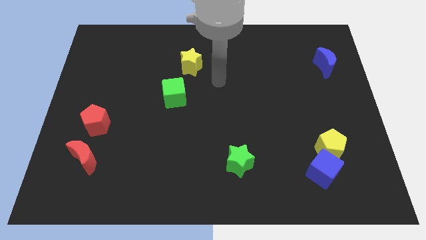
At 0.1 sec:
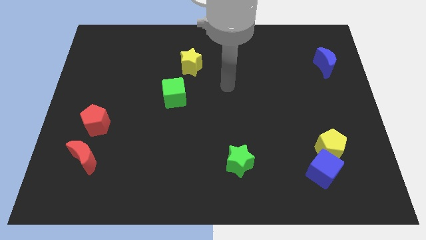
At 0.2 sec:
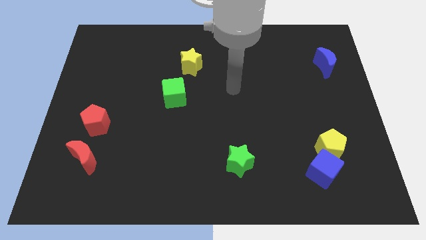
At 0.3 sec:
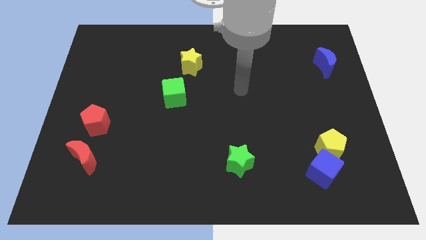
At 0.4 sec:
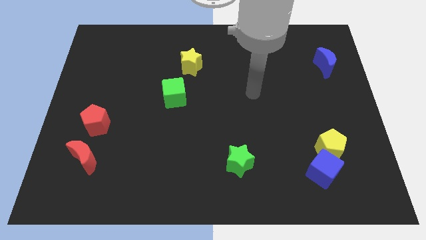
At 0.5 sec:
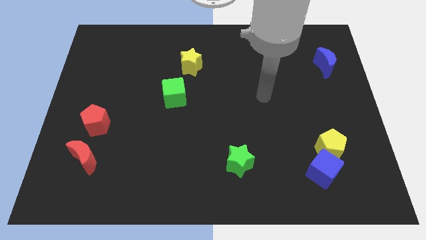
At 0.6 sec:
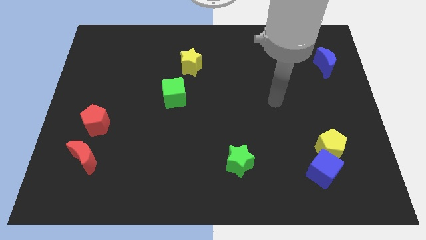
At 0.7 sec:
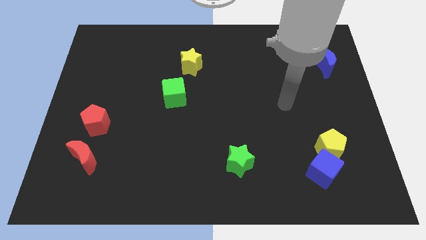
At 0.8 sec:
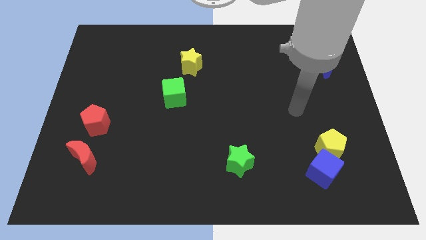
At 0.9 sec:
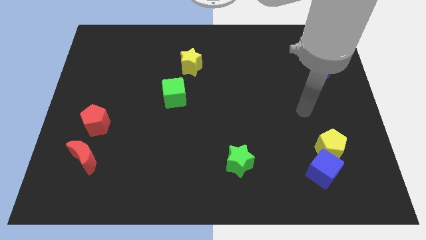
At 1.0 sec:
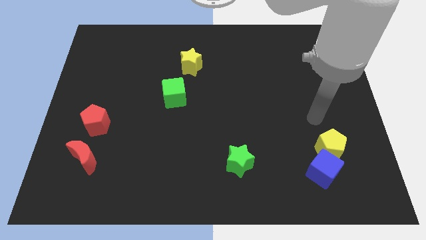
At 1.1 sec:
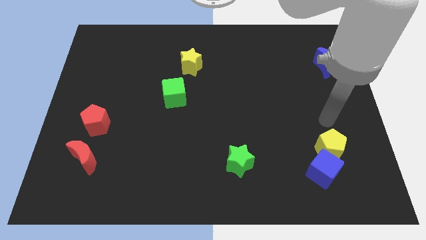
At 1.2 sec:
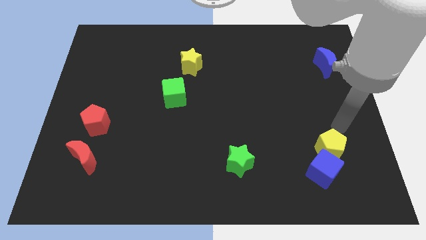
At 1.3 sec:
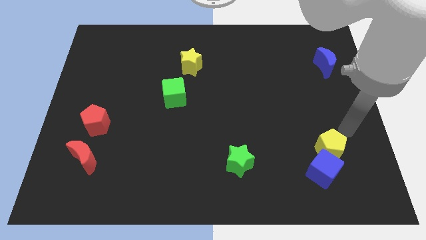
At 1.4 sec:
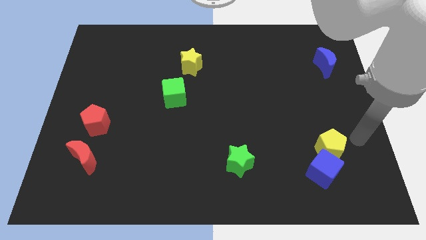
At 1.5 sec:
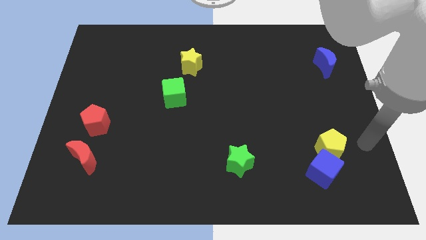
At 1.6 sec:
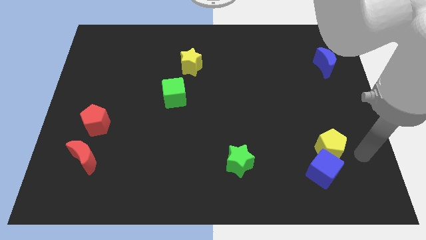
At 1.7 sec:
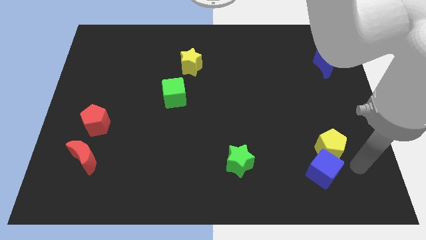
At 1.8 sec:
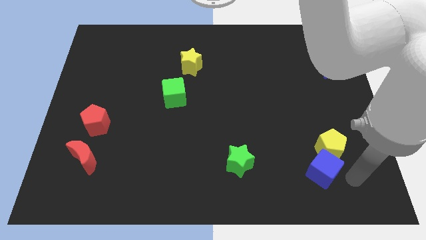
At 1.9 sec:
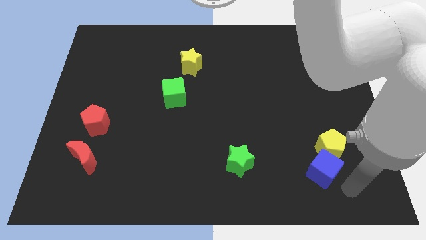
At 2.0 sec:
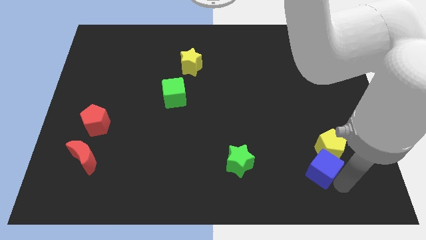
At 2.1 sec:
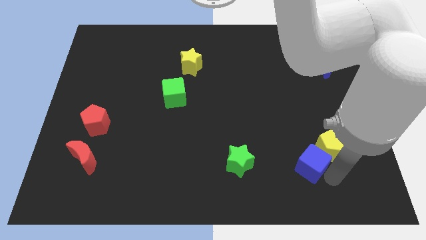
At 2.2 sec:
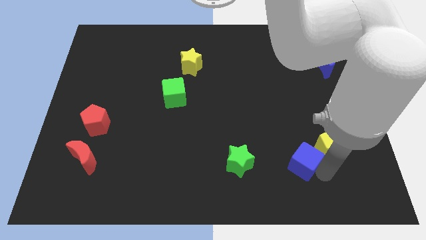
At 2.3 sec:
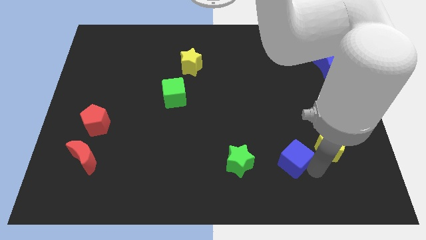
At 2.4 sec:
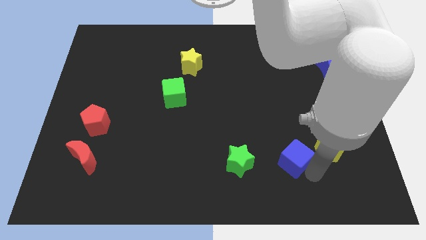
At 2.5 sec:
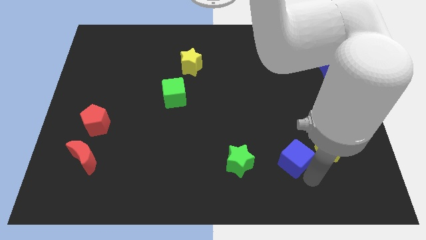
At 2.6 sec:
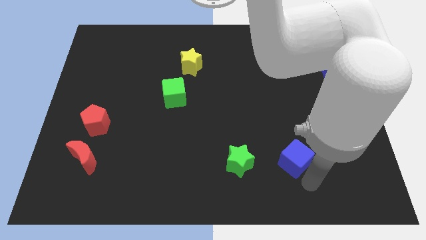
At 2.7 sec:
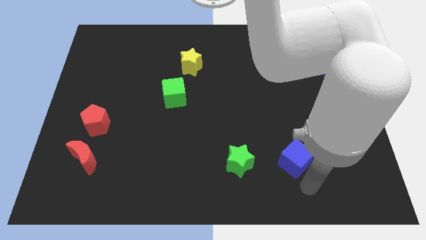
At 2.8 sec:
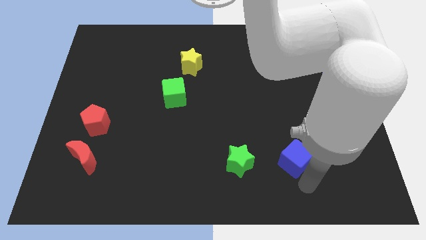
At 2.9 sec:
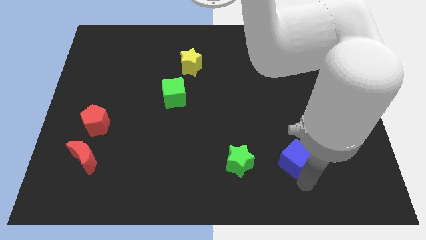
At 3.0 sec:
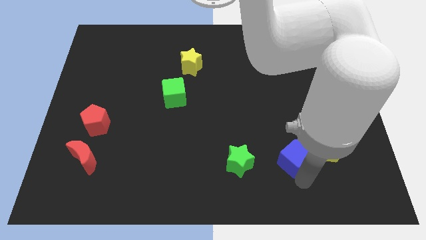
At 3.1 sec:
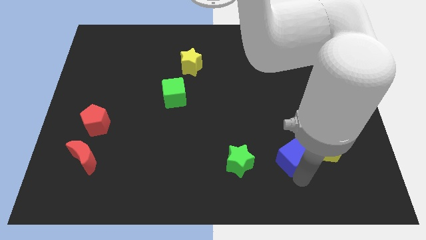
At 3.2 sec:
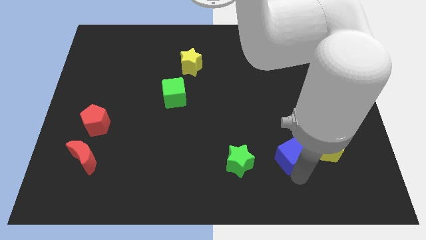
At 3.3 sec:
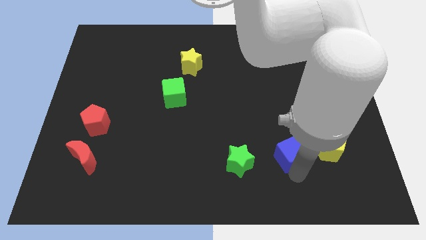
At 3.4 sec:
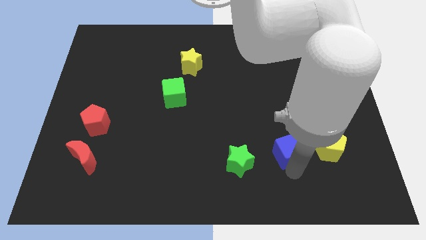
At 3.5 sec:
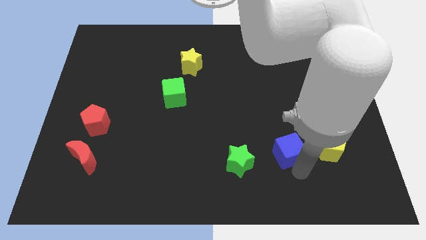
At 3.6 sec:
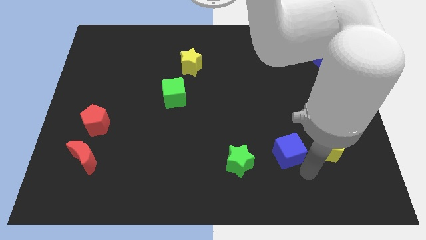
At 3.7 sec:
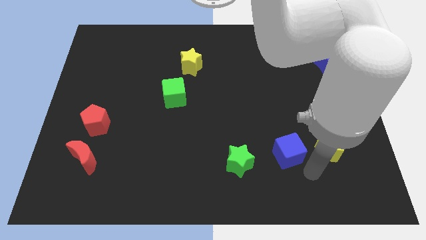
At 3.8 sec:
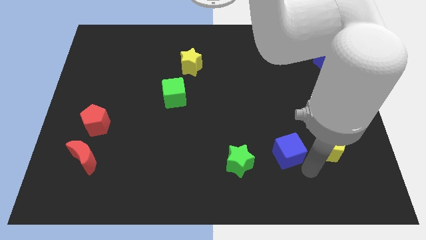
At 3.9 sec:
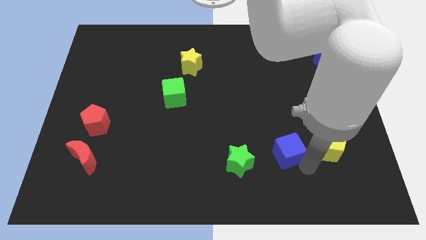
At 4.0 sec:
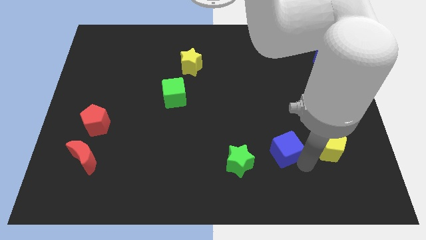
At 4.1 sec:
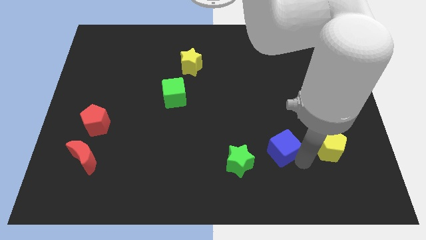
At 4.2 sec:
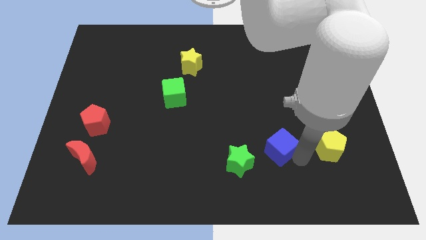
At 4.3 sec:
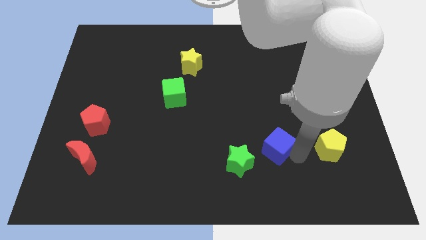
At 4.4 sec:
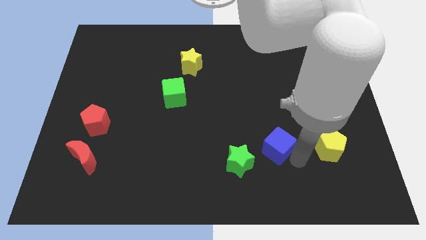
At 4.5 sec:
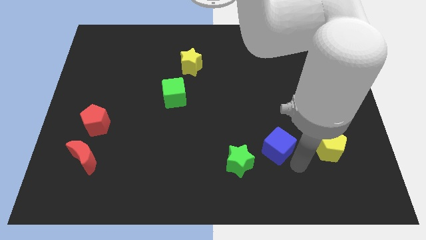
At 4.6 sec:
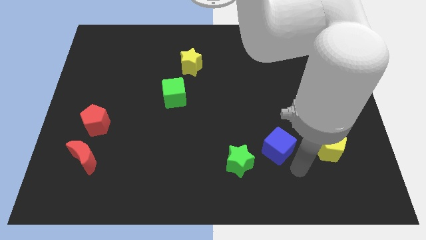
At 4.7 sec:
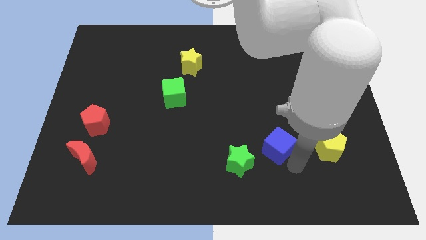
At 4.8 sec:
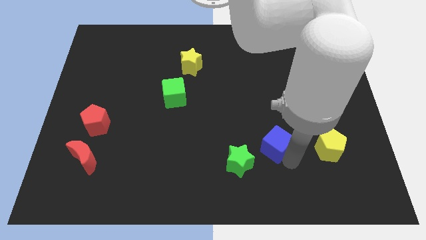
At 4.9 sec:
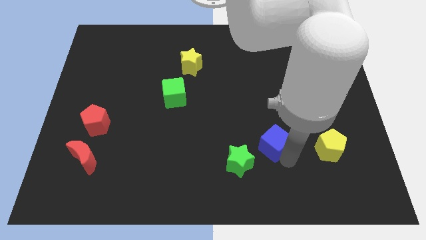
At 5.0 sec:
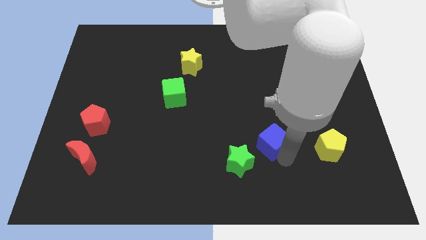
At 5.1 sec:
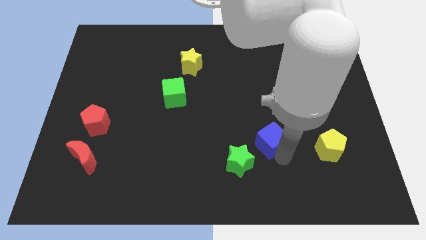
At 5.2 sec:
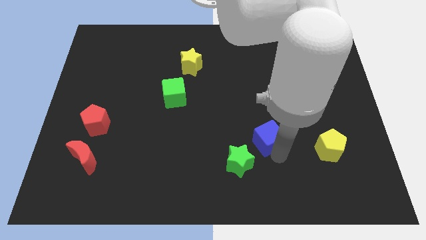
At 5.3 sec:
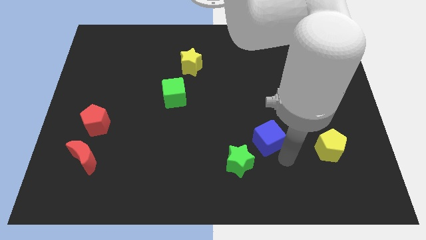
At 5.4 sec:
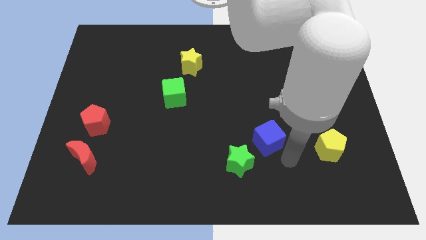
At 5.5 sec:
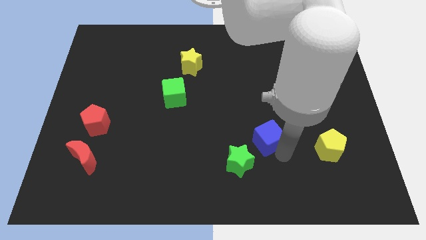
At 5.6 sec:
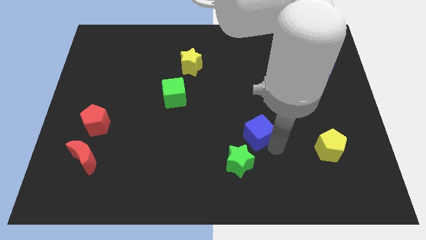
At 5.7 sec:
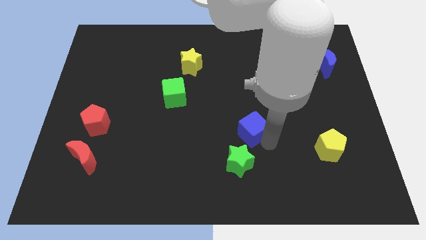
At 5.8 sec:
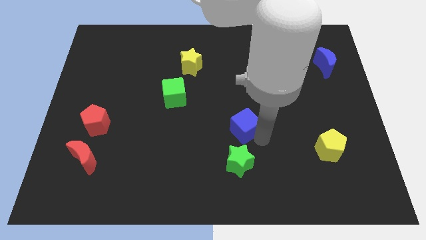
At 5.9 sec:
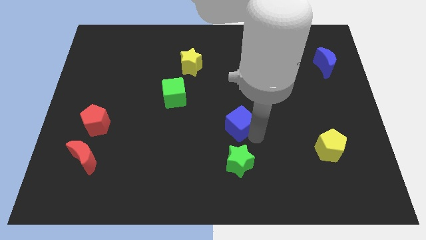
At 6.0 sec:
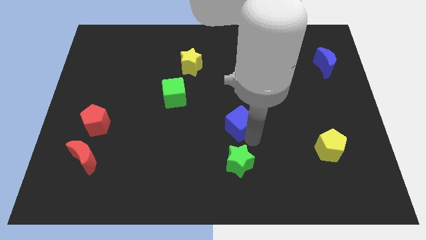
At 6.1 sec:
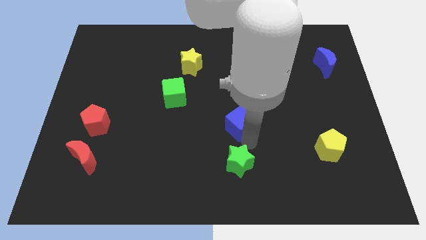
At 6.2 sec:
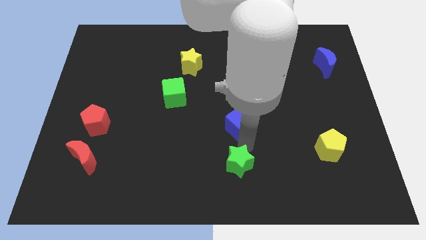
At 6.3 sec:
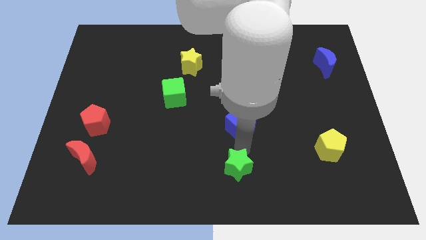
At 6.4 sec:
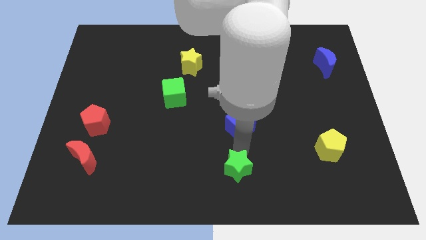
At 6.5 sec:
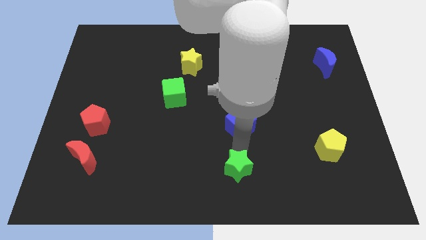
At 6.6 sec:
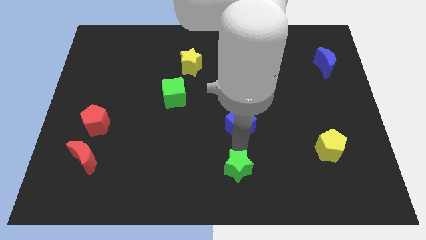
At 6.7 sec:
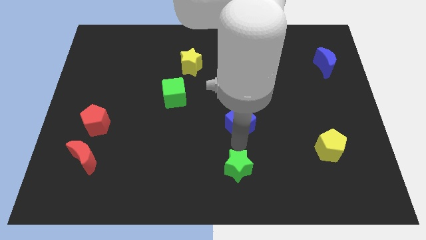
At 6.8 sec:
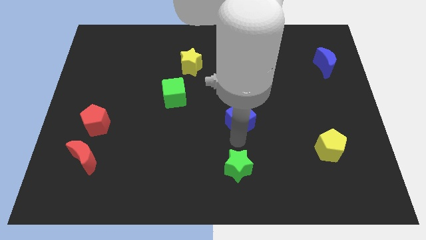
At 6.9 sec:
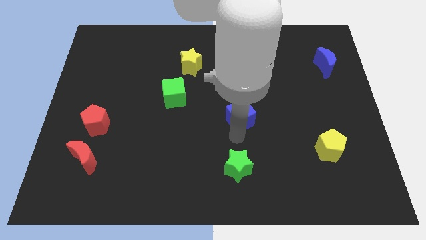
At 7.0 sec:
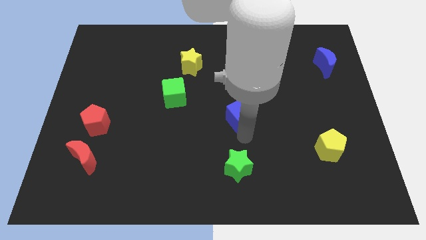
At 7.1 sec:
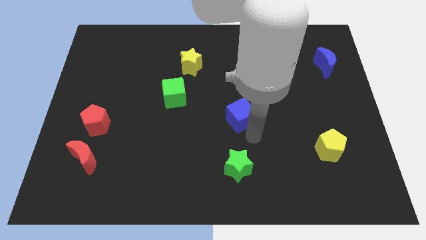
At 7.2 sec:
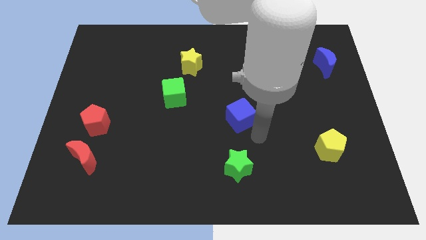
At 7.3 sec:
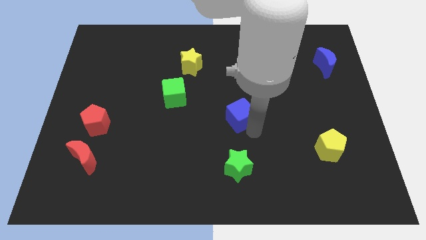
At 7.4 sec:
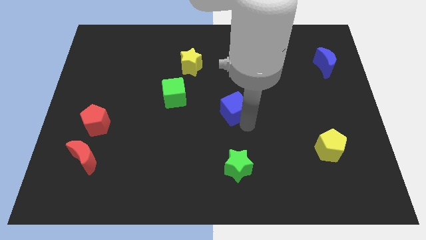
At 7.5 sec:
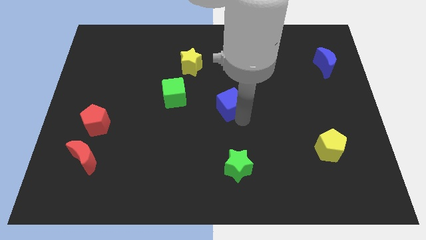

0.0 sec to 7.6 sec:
move the blue cube just right of the green cube

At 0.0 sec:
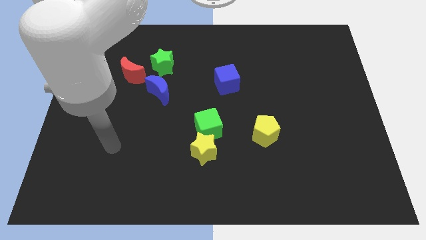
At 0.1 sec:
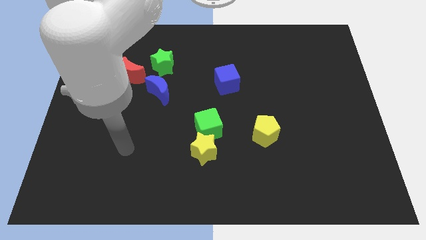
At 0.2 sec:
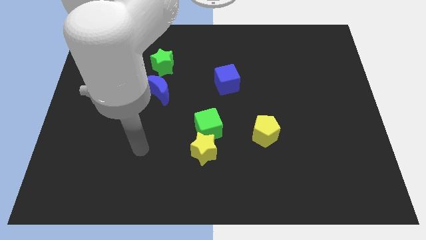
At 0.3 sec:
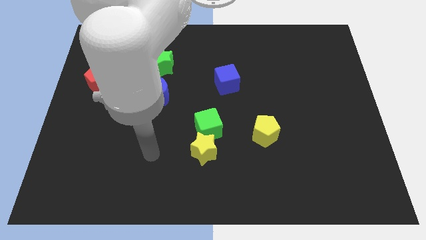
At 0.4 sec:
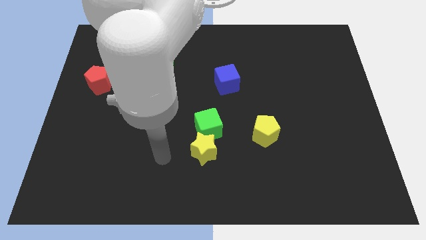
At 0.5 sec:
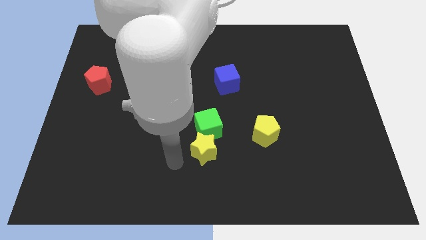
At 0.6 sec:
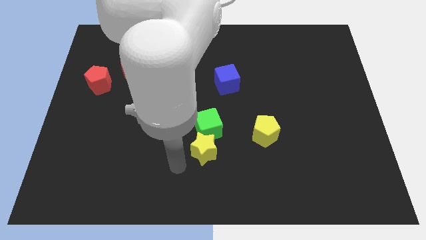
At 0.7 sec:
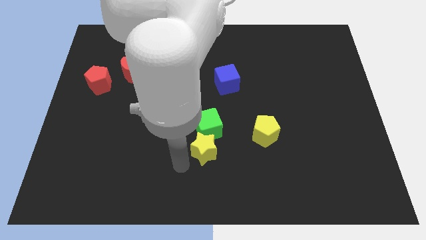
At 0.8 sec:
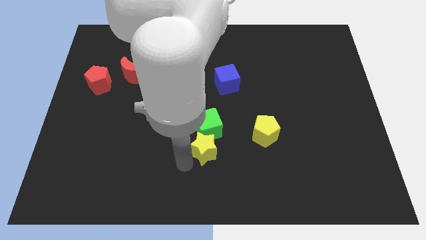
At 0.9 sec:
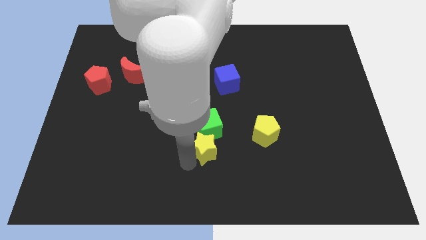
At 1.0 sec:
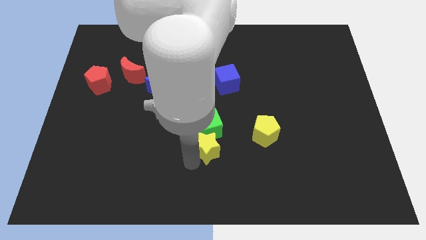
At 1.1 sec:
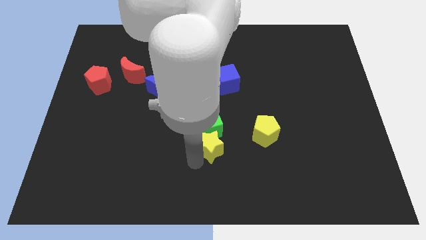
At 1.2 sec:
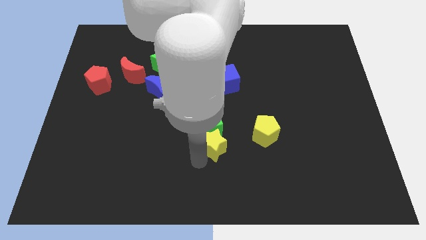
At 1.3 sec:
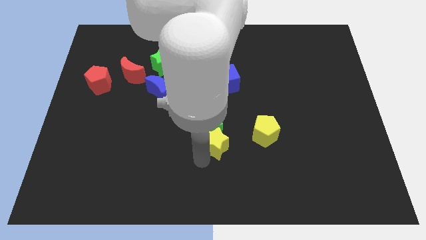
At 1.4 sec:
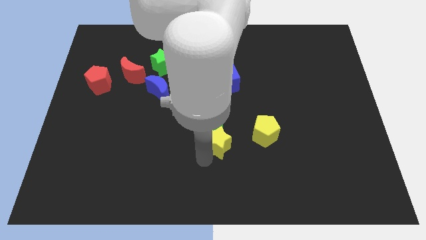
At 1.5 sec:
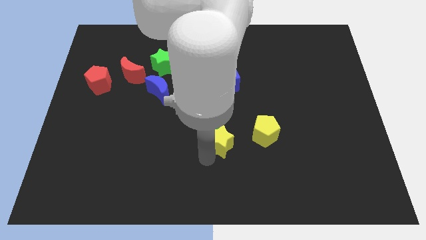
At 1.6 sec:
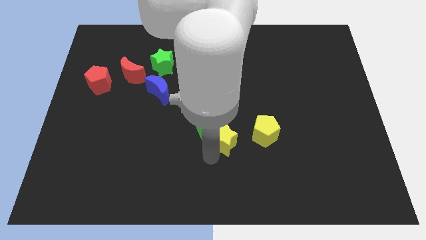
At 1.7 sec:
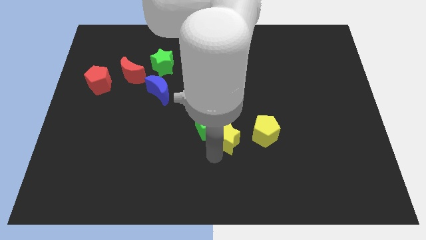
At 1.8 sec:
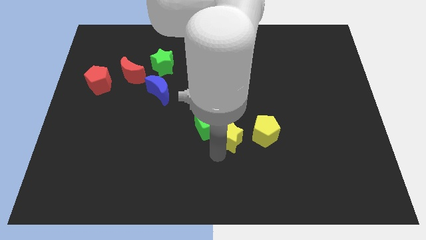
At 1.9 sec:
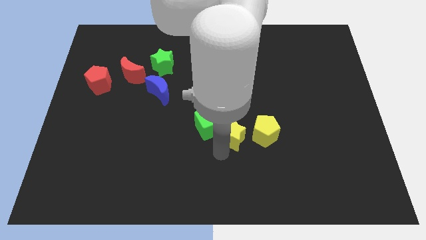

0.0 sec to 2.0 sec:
slide the yellow star to the bottom side of the blue cube
